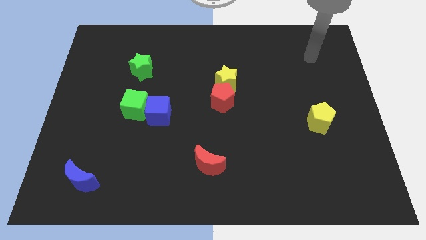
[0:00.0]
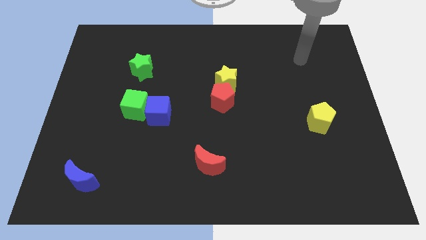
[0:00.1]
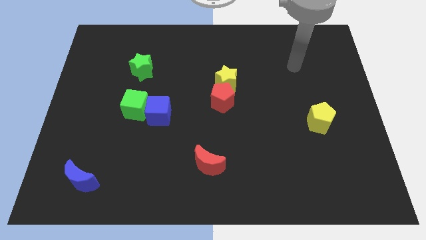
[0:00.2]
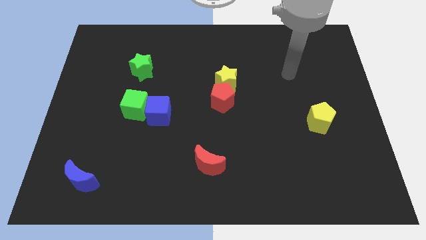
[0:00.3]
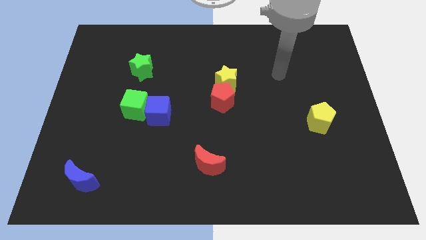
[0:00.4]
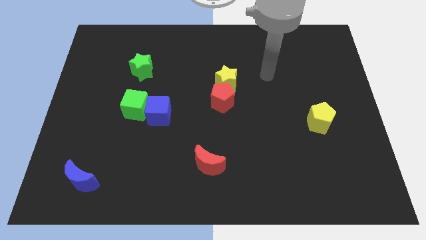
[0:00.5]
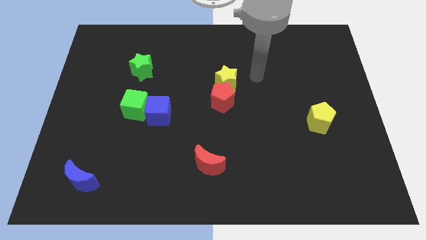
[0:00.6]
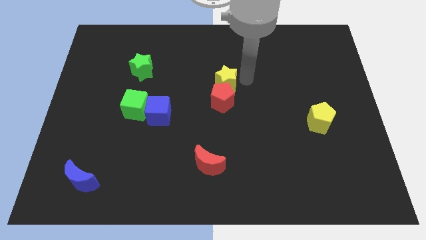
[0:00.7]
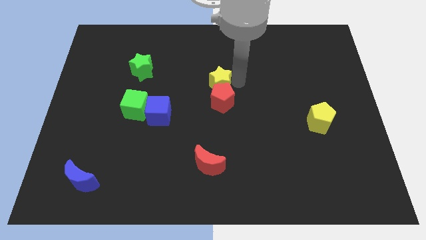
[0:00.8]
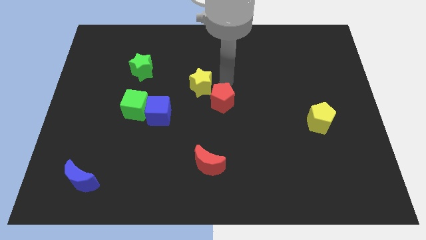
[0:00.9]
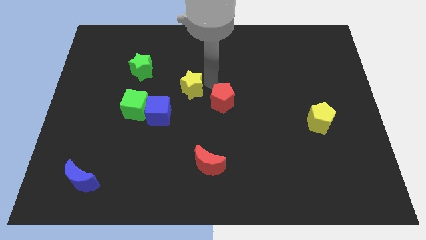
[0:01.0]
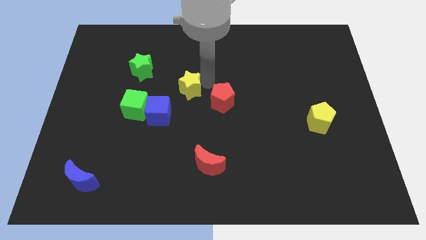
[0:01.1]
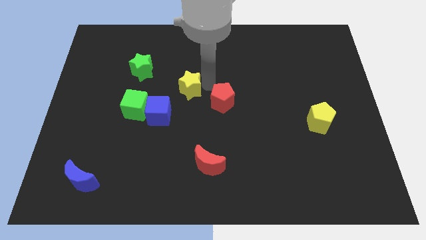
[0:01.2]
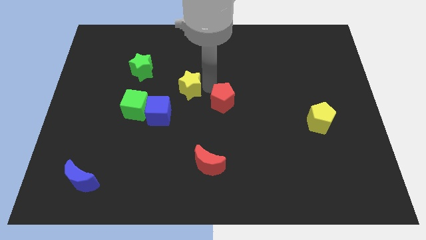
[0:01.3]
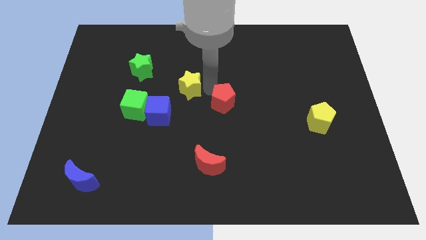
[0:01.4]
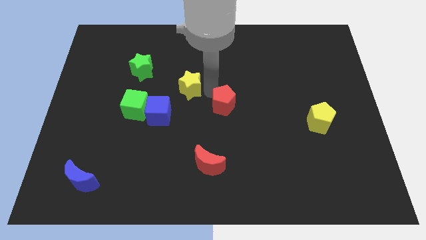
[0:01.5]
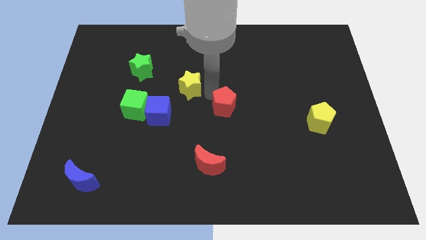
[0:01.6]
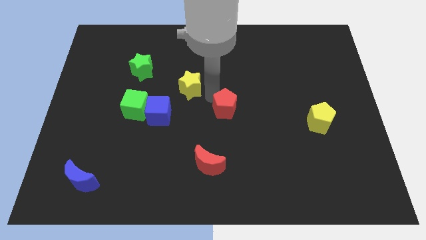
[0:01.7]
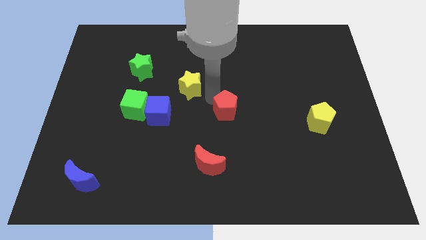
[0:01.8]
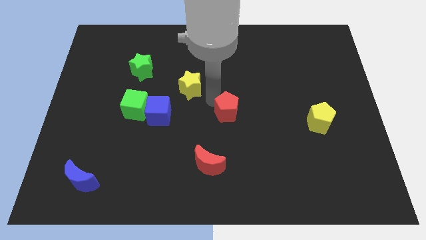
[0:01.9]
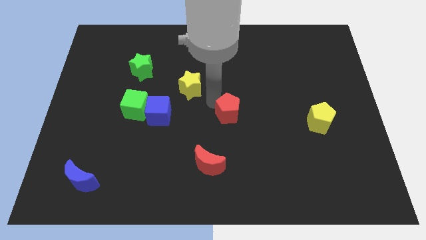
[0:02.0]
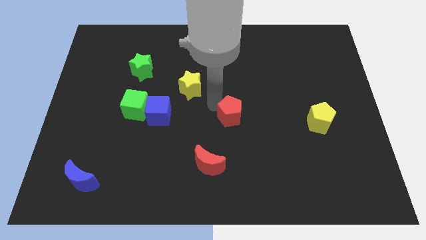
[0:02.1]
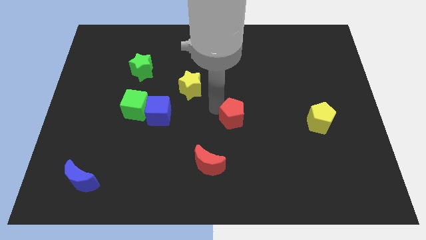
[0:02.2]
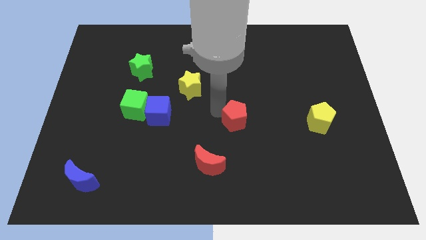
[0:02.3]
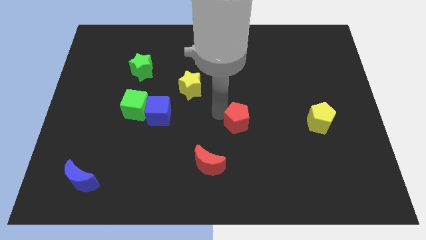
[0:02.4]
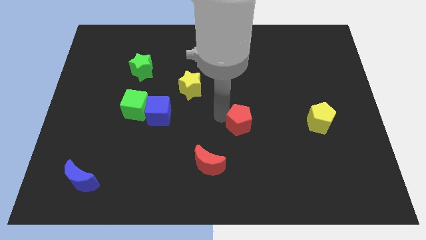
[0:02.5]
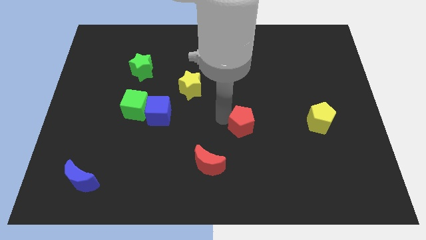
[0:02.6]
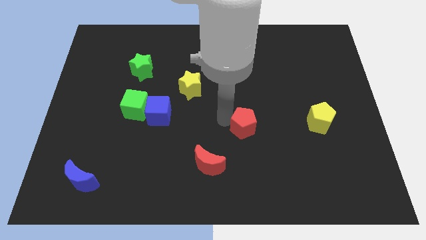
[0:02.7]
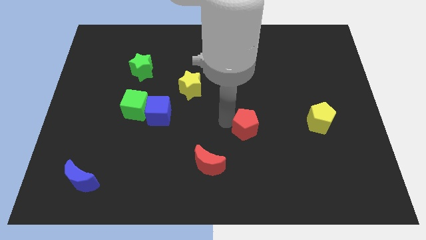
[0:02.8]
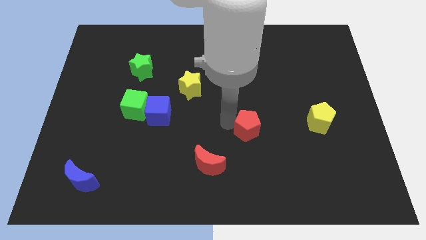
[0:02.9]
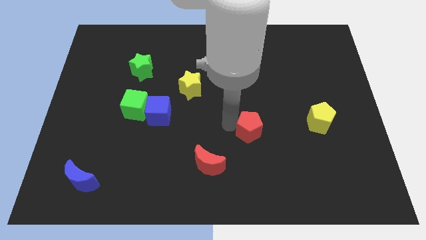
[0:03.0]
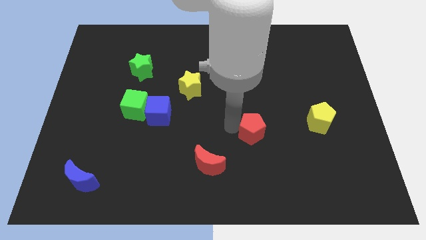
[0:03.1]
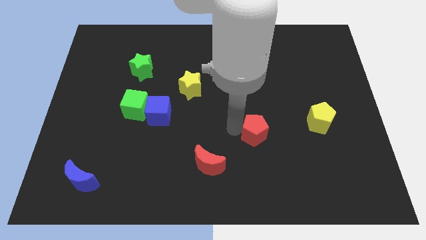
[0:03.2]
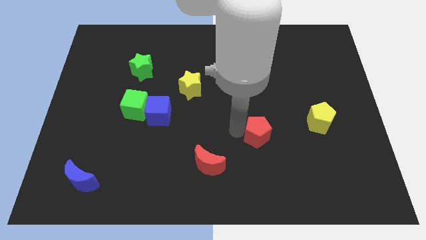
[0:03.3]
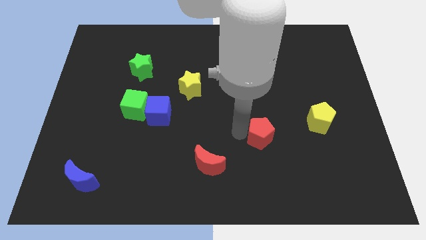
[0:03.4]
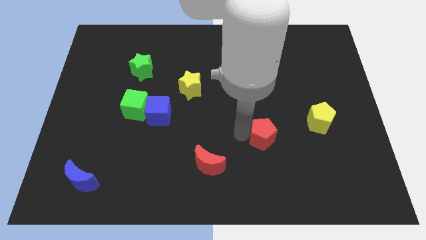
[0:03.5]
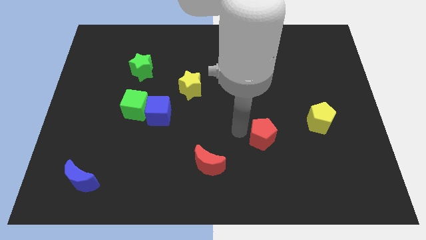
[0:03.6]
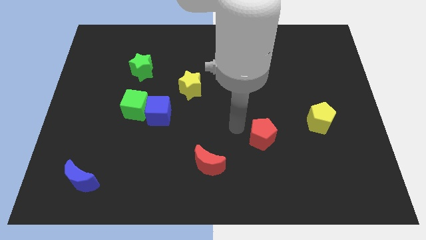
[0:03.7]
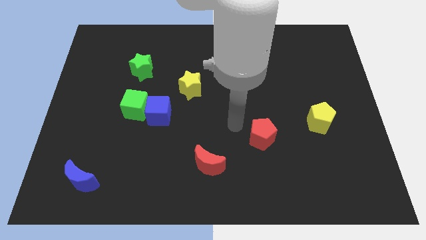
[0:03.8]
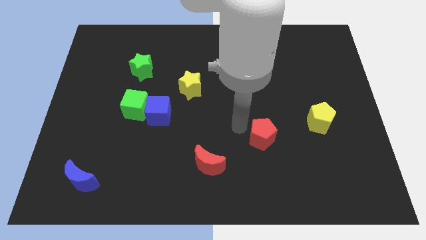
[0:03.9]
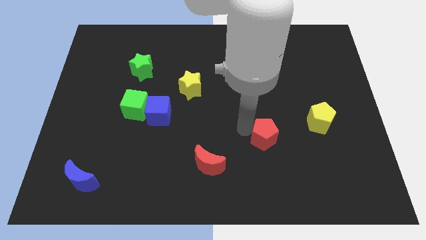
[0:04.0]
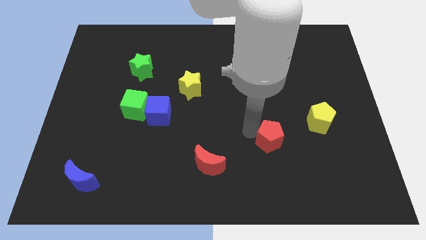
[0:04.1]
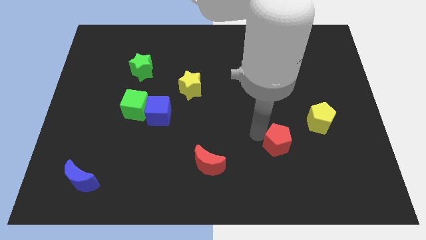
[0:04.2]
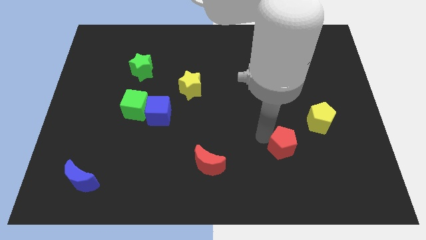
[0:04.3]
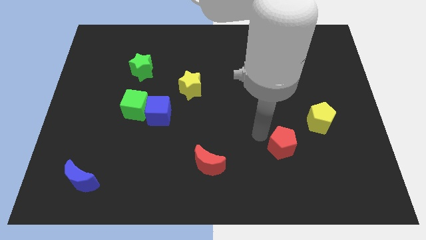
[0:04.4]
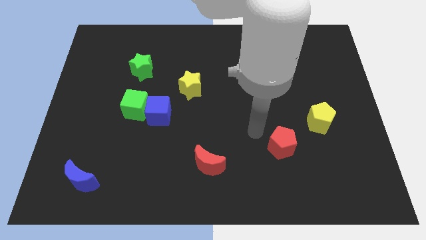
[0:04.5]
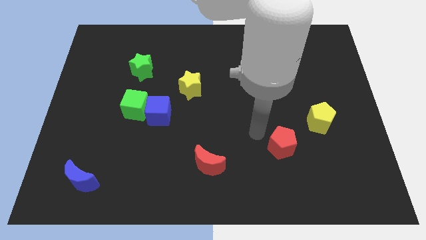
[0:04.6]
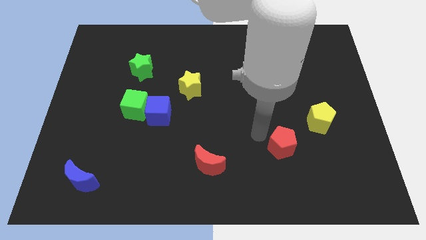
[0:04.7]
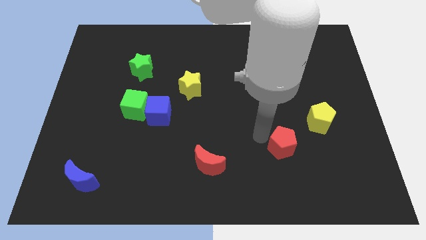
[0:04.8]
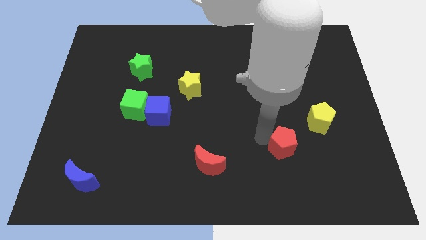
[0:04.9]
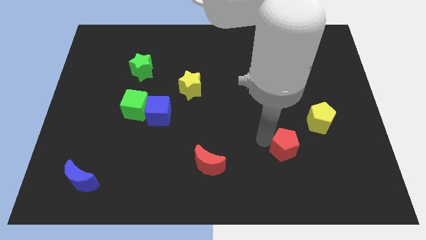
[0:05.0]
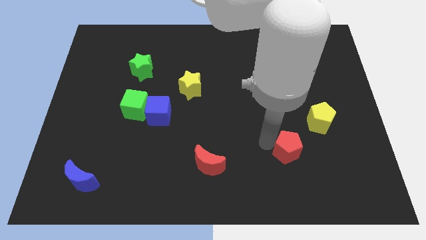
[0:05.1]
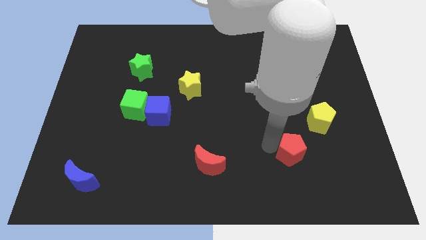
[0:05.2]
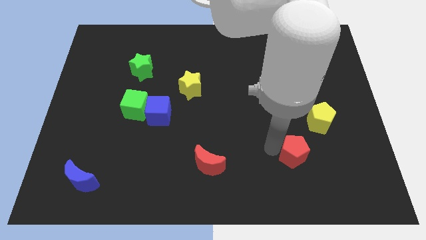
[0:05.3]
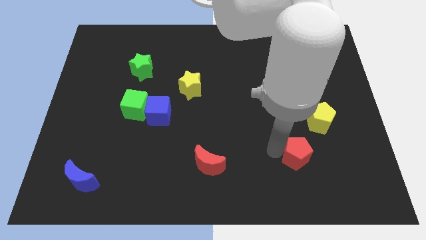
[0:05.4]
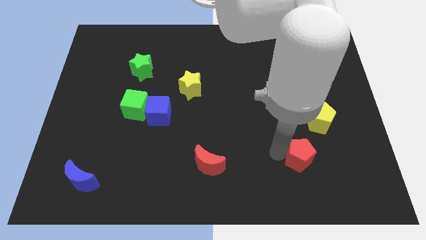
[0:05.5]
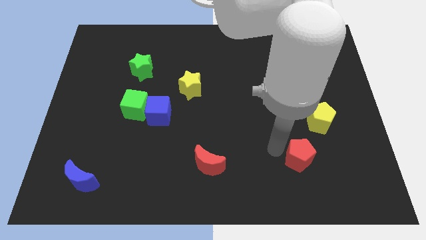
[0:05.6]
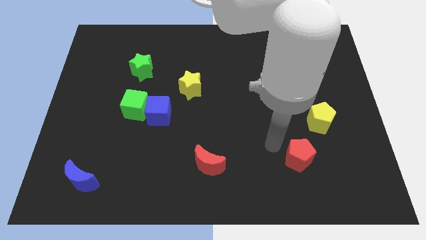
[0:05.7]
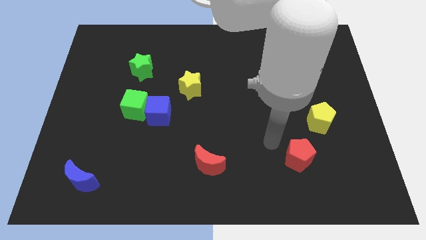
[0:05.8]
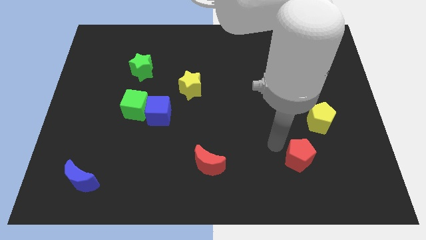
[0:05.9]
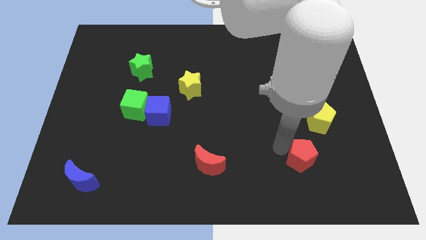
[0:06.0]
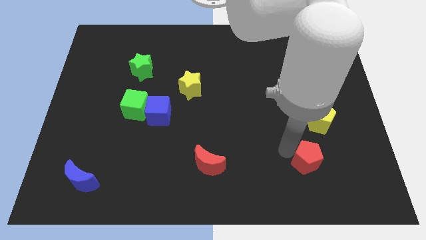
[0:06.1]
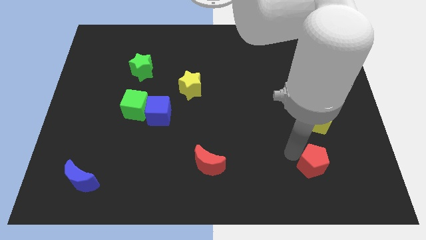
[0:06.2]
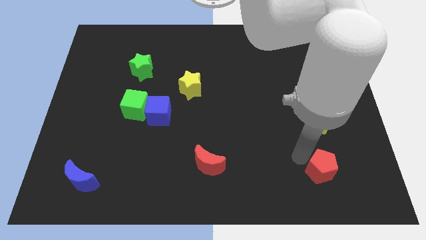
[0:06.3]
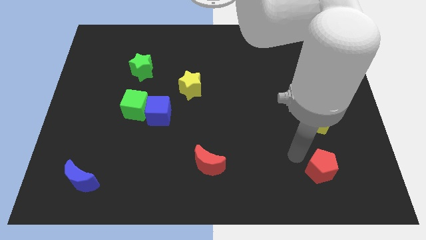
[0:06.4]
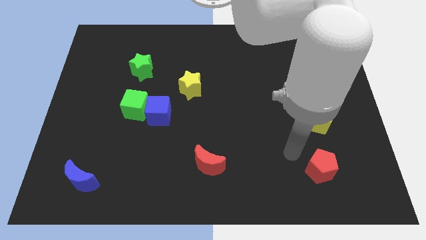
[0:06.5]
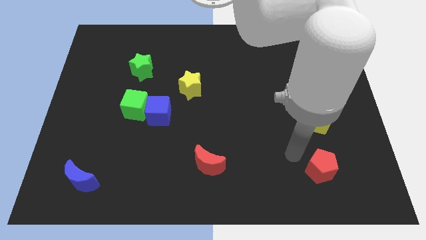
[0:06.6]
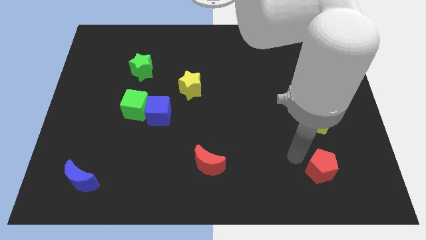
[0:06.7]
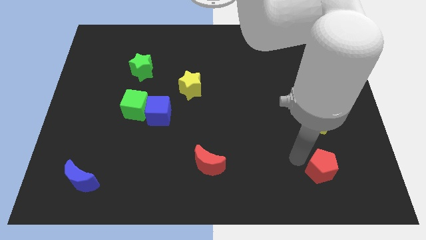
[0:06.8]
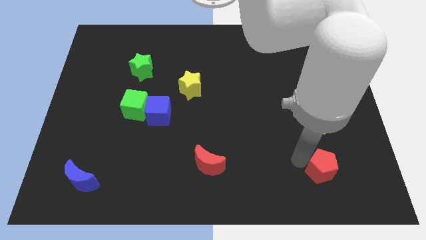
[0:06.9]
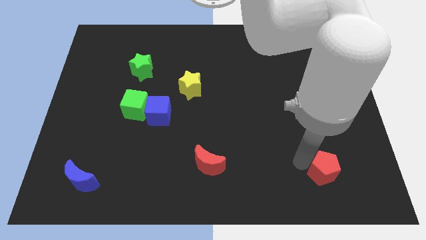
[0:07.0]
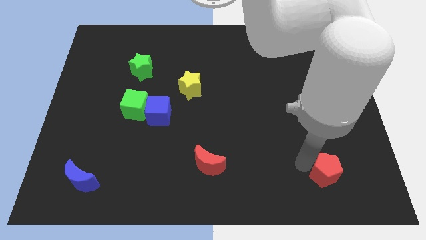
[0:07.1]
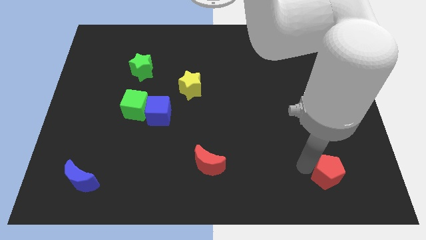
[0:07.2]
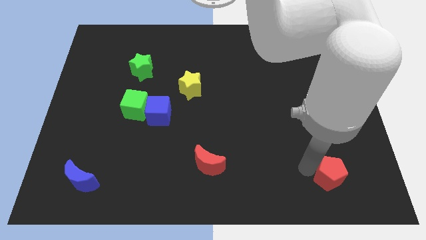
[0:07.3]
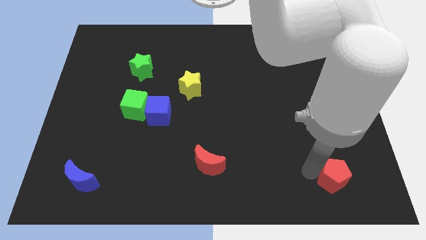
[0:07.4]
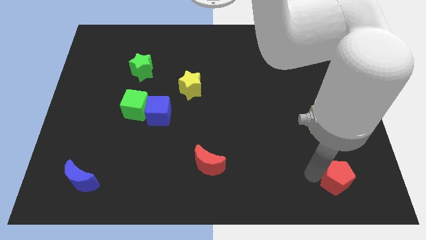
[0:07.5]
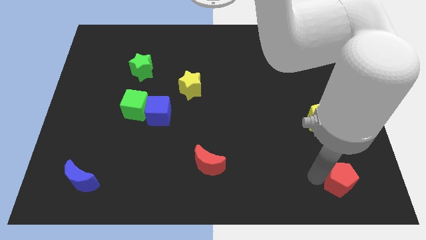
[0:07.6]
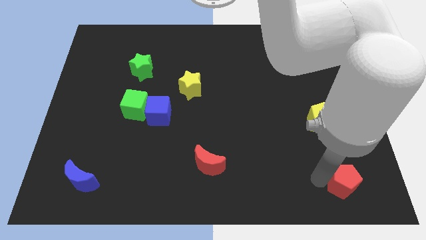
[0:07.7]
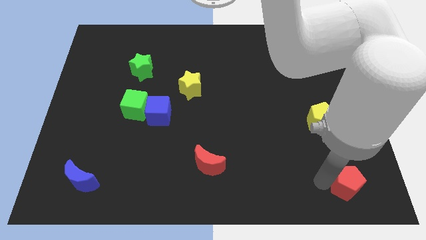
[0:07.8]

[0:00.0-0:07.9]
slide the red pentagon to the bottom right corner
